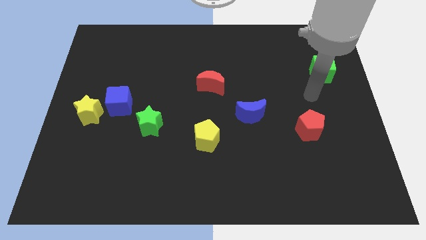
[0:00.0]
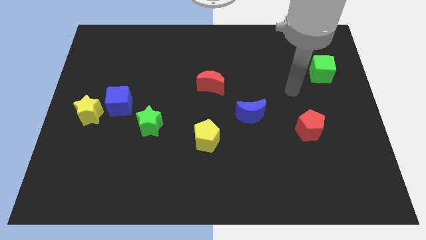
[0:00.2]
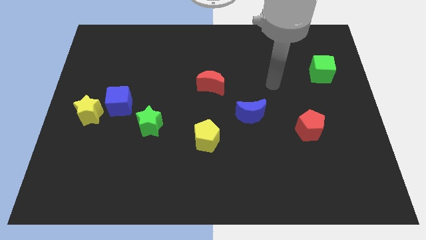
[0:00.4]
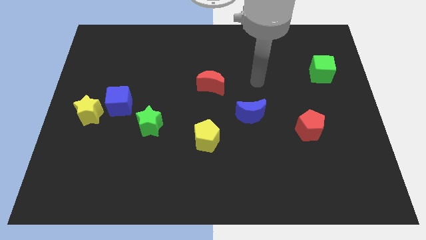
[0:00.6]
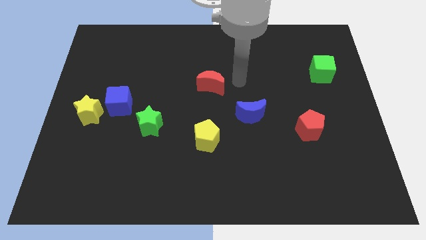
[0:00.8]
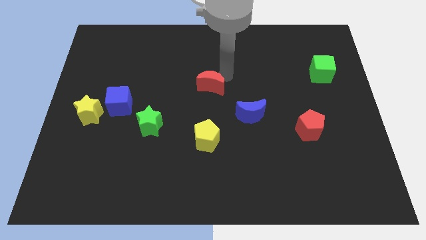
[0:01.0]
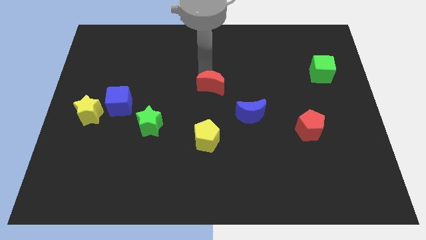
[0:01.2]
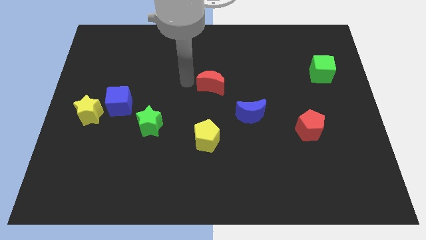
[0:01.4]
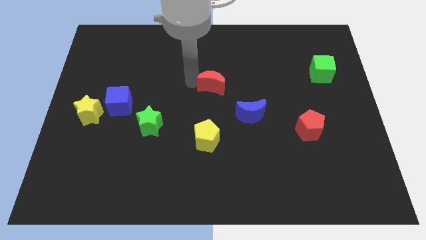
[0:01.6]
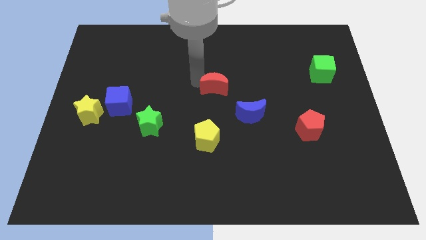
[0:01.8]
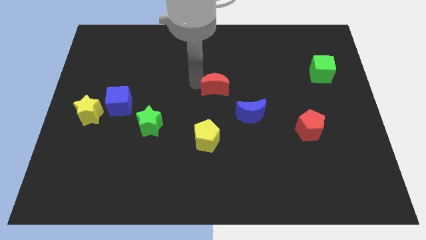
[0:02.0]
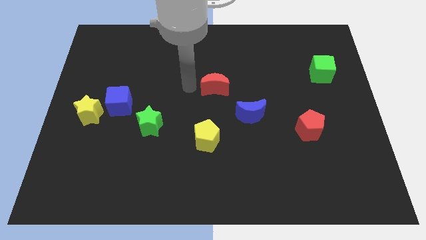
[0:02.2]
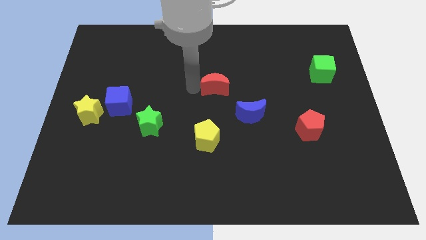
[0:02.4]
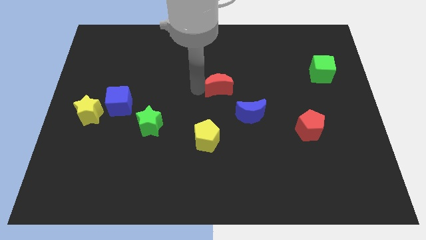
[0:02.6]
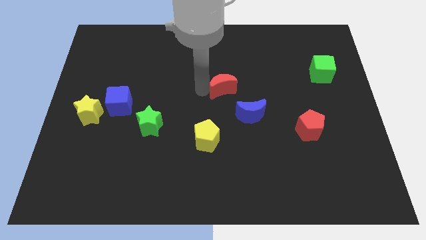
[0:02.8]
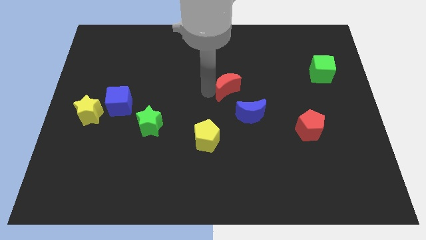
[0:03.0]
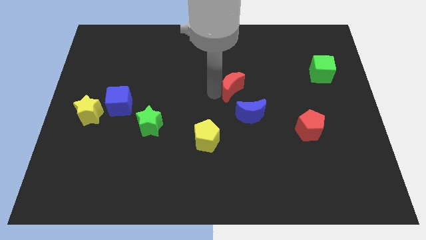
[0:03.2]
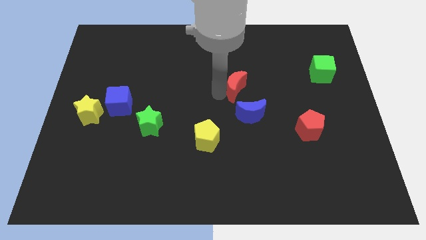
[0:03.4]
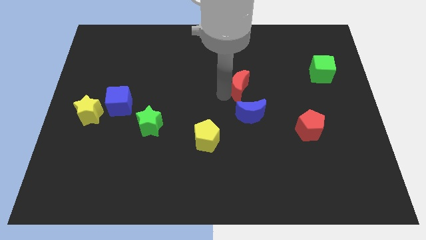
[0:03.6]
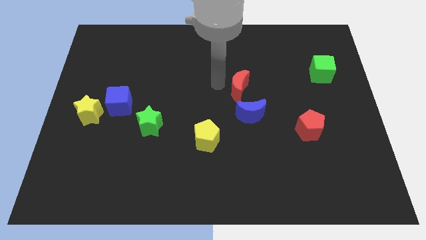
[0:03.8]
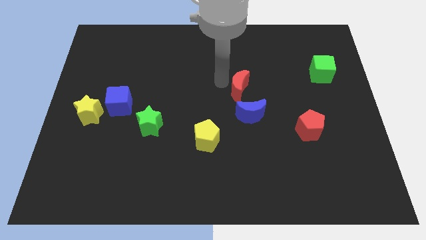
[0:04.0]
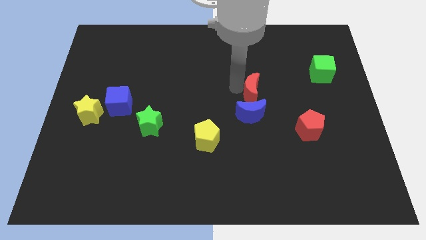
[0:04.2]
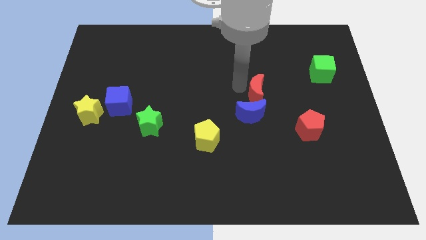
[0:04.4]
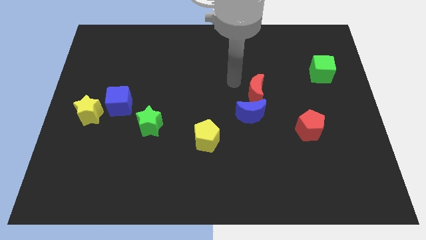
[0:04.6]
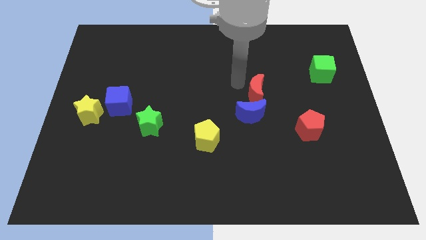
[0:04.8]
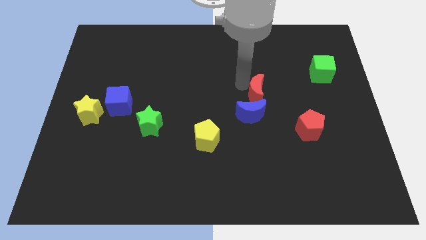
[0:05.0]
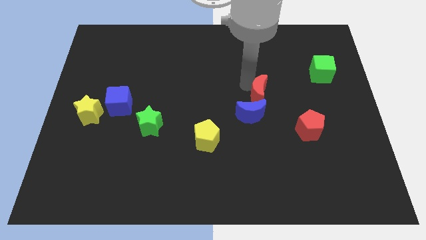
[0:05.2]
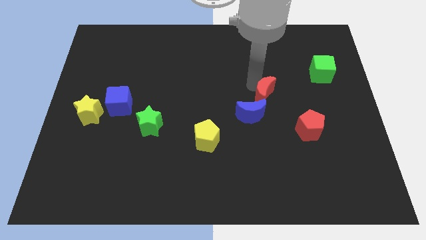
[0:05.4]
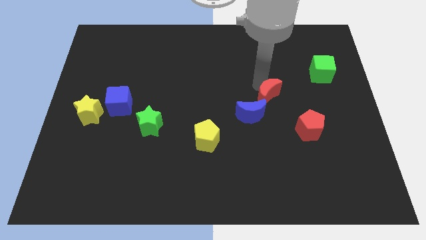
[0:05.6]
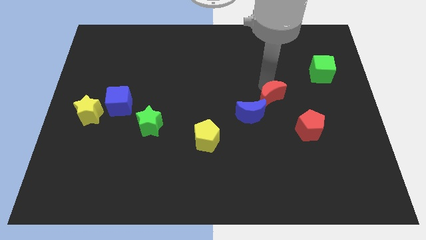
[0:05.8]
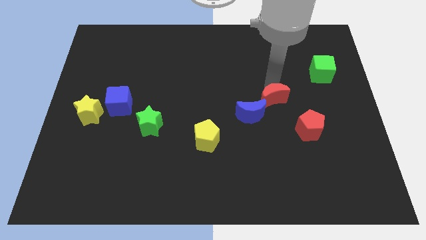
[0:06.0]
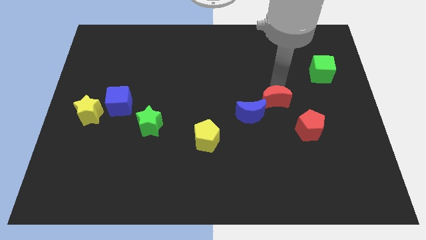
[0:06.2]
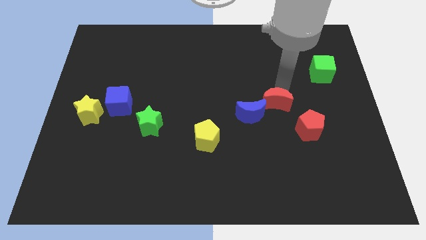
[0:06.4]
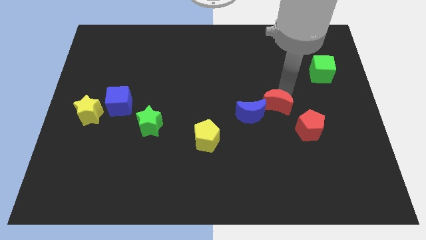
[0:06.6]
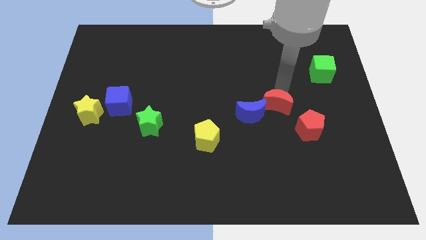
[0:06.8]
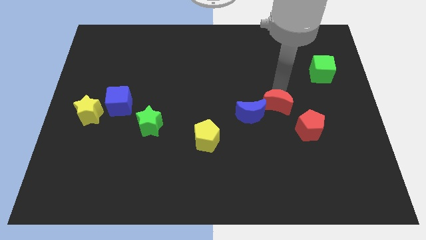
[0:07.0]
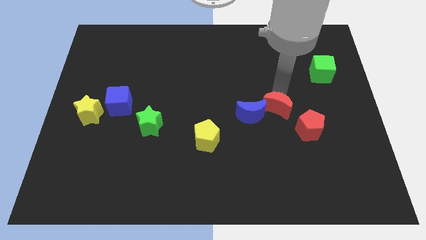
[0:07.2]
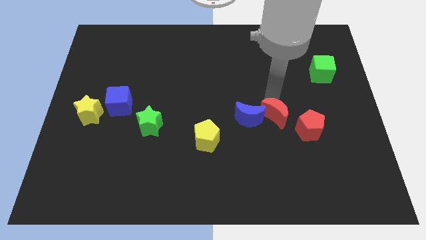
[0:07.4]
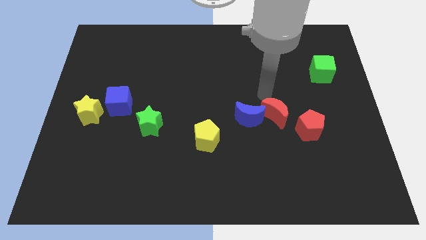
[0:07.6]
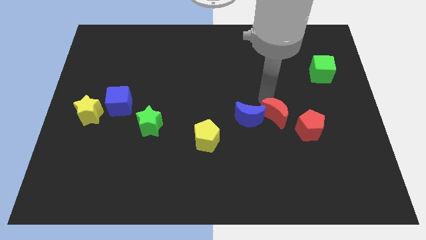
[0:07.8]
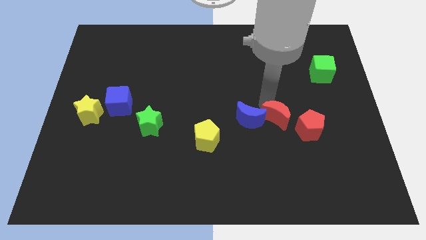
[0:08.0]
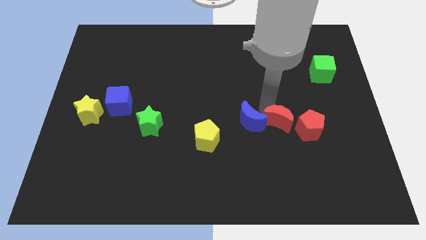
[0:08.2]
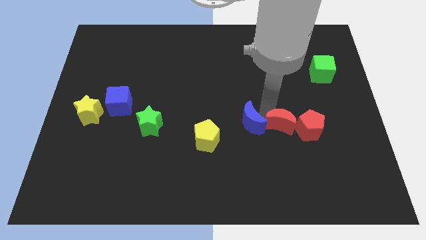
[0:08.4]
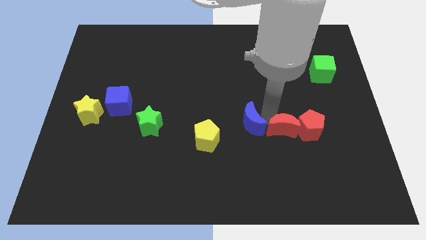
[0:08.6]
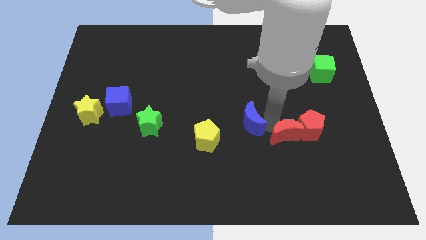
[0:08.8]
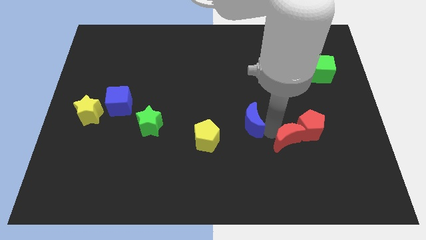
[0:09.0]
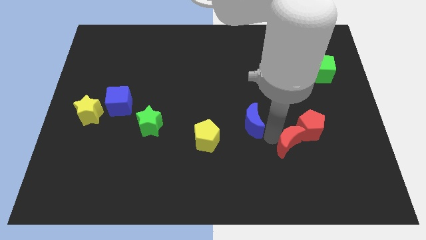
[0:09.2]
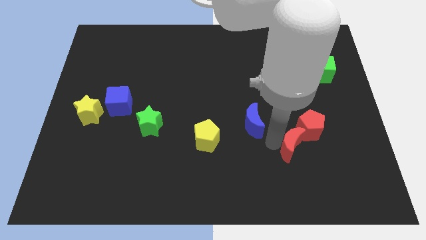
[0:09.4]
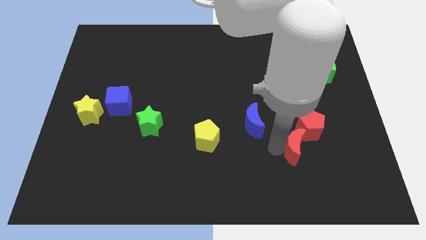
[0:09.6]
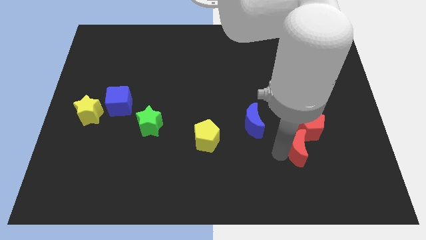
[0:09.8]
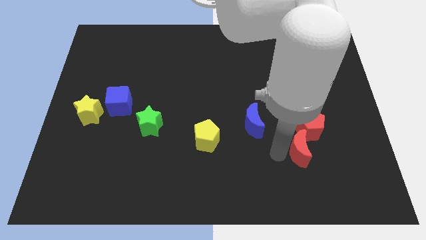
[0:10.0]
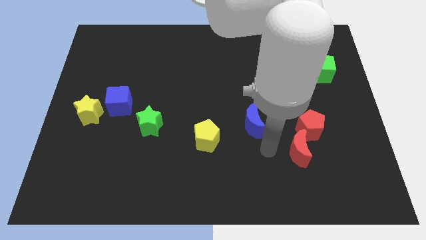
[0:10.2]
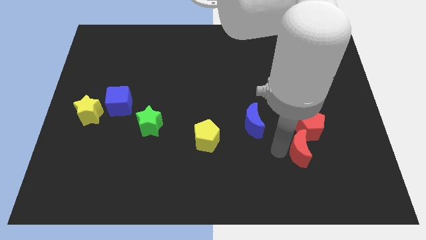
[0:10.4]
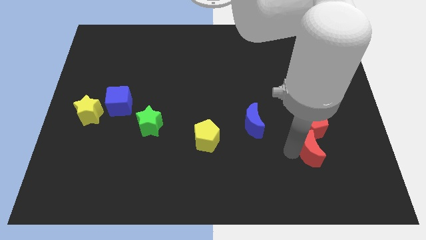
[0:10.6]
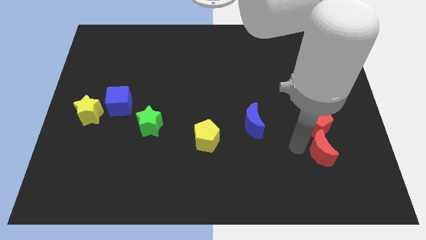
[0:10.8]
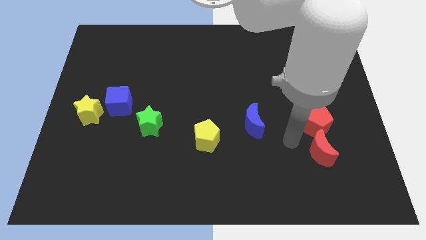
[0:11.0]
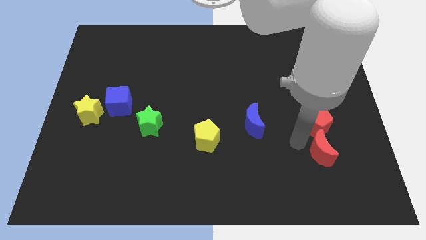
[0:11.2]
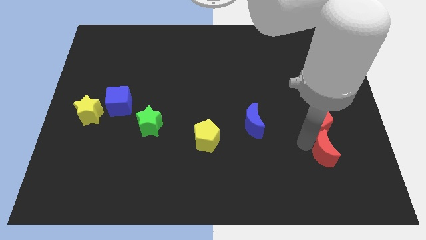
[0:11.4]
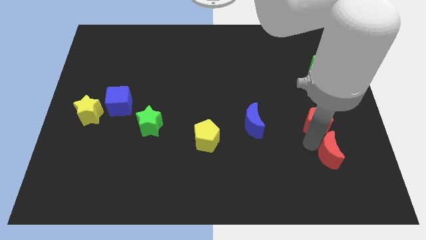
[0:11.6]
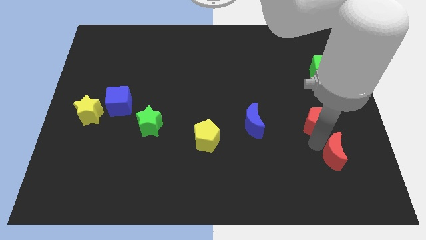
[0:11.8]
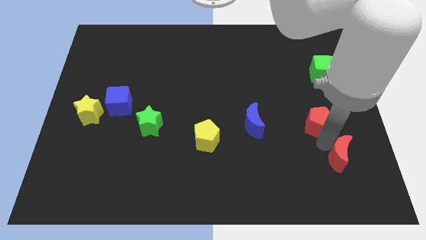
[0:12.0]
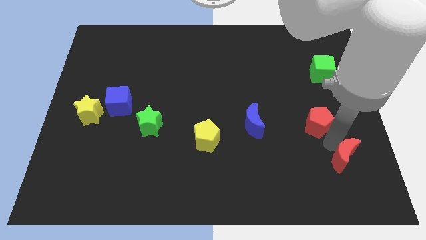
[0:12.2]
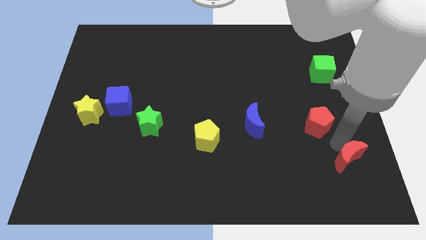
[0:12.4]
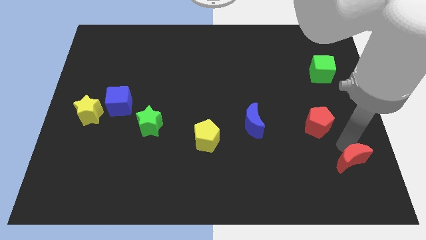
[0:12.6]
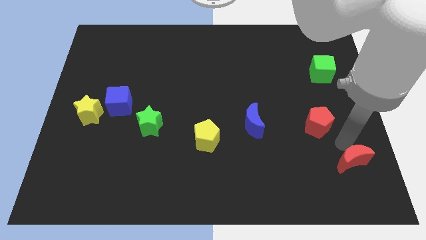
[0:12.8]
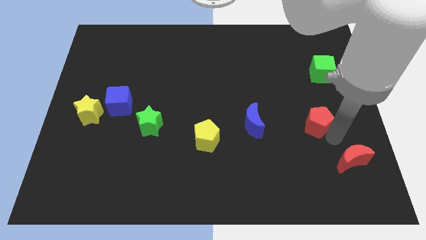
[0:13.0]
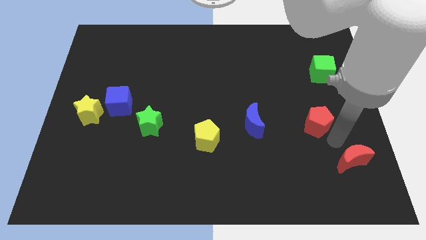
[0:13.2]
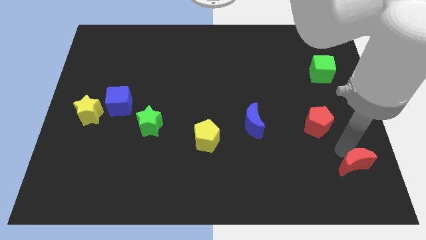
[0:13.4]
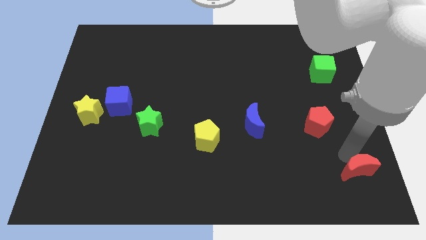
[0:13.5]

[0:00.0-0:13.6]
put the red moon to the bottom right of the board
